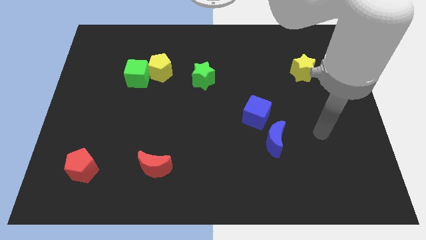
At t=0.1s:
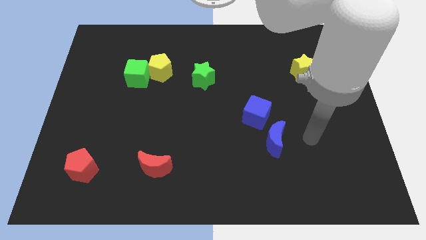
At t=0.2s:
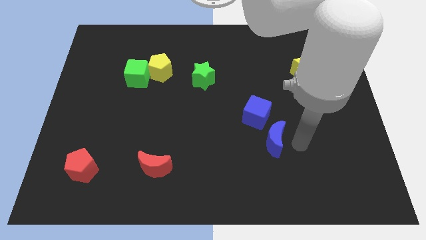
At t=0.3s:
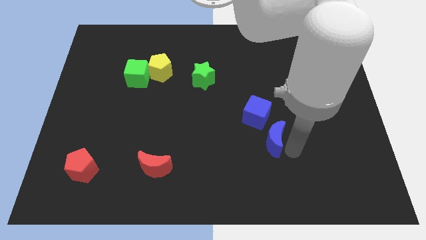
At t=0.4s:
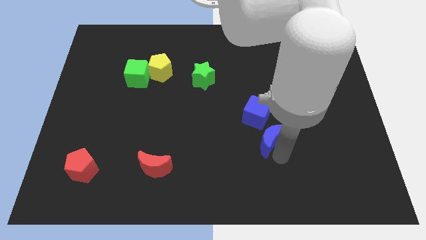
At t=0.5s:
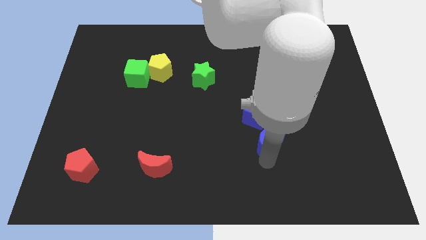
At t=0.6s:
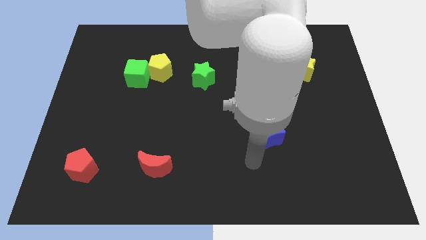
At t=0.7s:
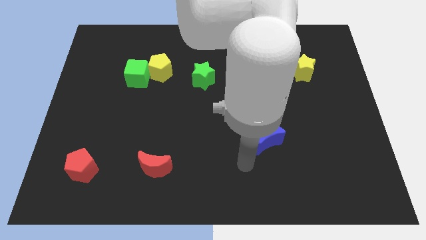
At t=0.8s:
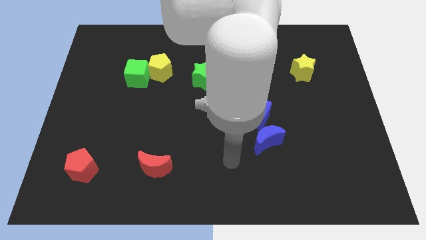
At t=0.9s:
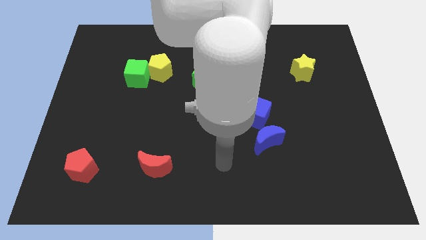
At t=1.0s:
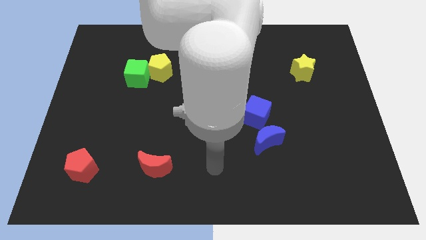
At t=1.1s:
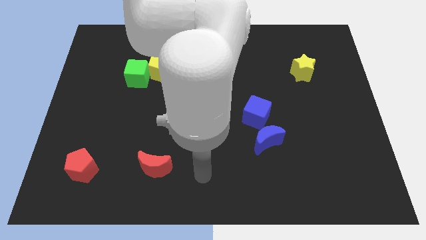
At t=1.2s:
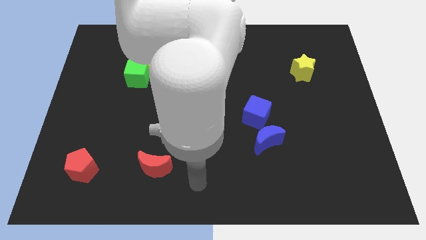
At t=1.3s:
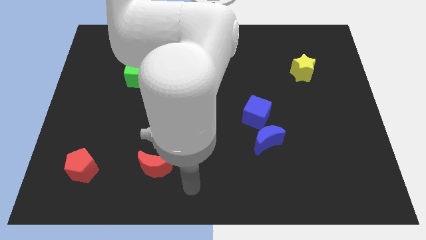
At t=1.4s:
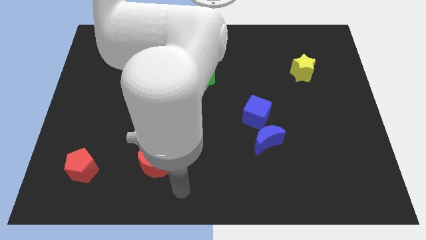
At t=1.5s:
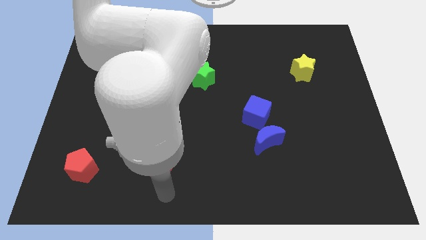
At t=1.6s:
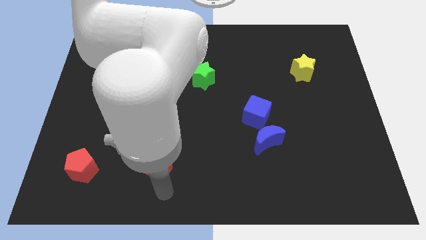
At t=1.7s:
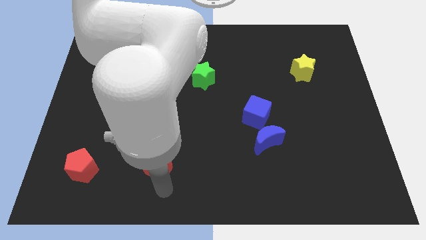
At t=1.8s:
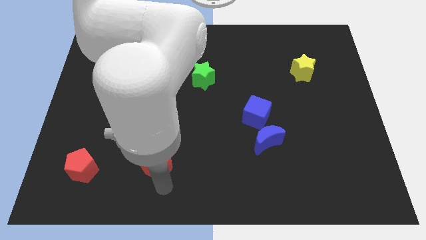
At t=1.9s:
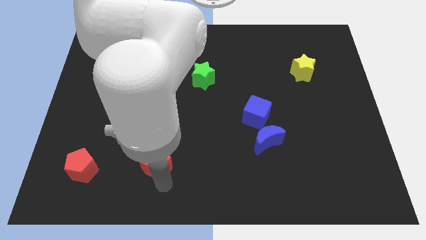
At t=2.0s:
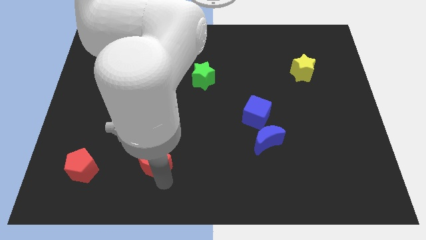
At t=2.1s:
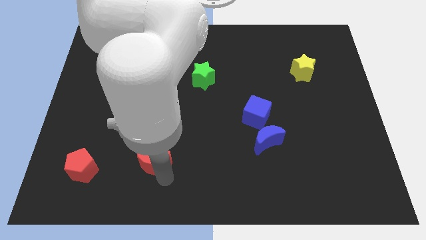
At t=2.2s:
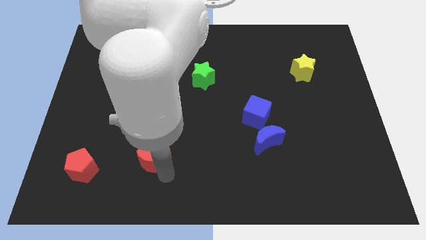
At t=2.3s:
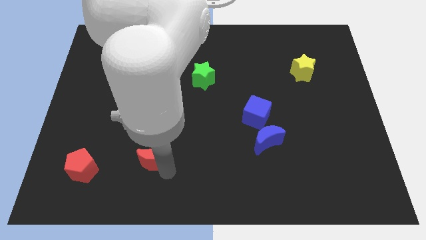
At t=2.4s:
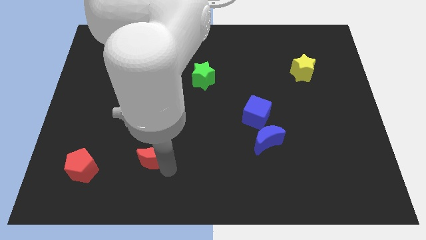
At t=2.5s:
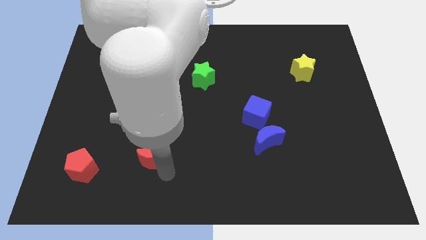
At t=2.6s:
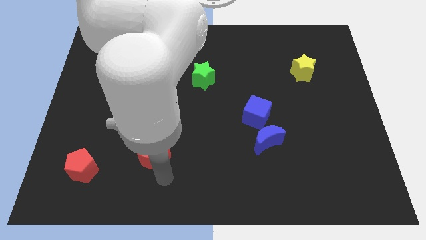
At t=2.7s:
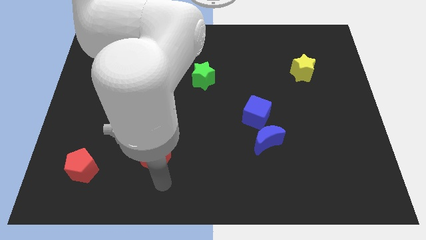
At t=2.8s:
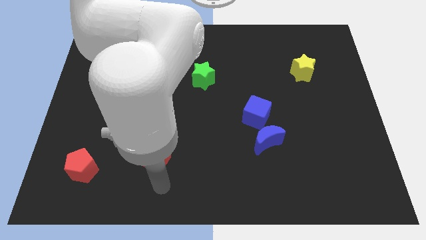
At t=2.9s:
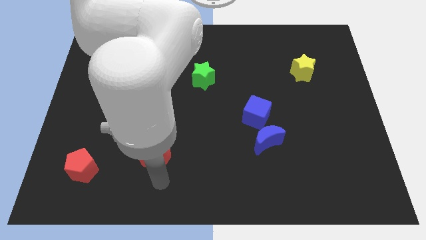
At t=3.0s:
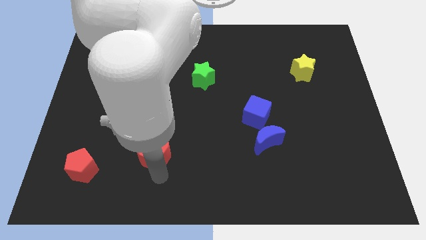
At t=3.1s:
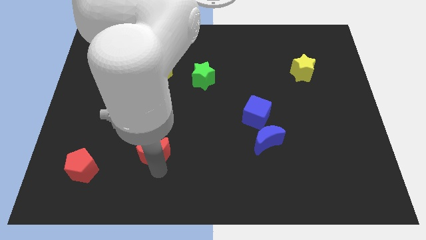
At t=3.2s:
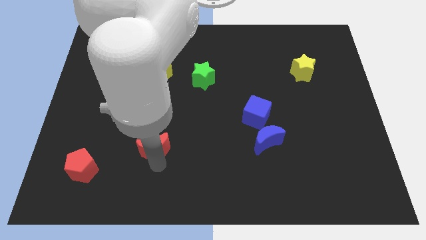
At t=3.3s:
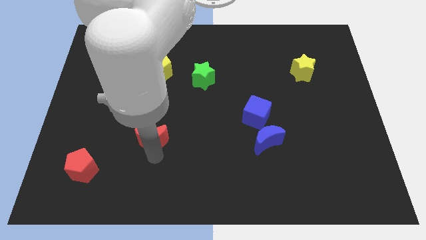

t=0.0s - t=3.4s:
slightly push the red moon up

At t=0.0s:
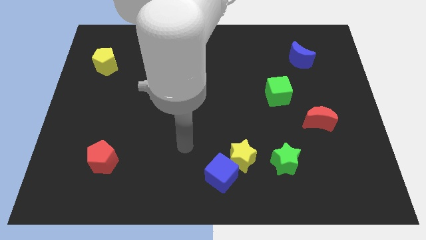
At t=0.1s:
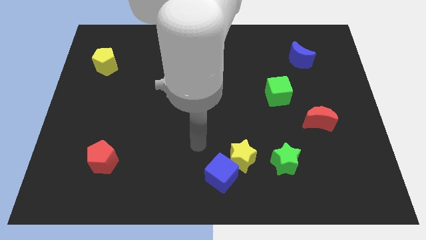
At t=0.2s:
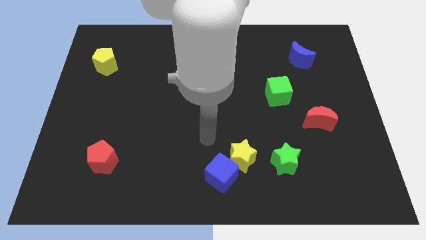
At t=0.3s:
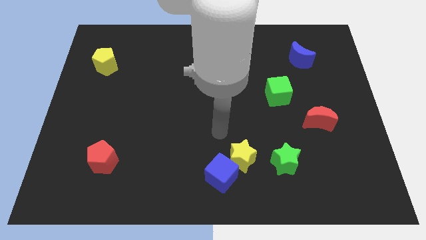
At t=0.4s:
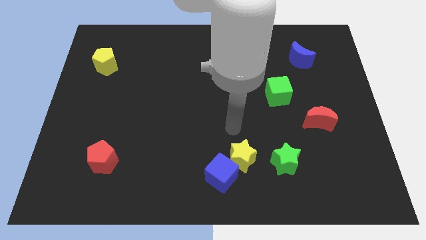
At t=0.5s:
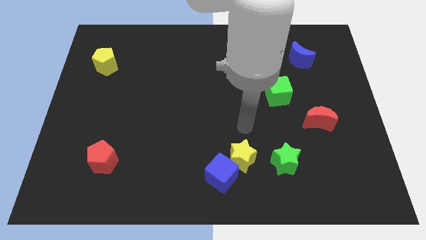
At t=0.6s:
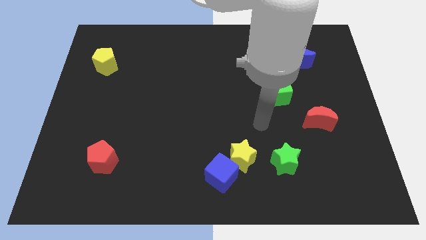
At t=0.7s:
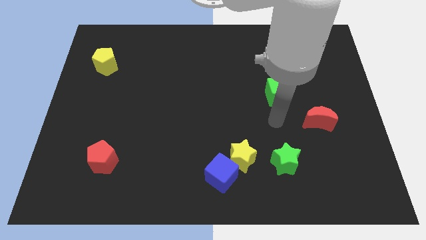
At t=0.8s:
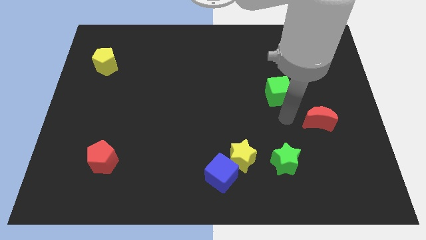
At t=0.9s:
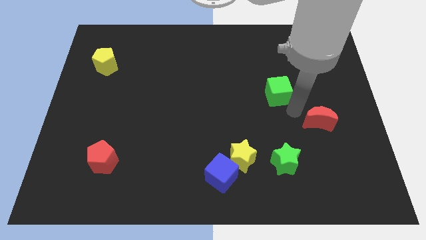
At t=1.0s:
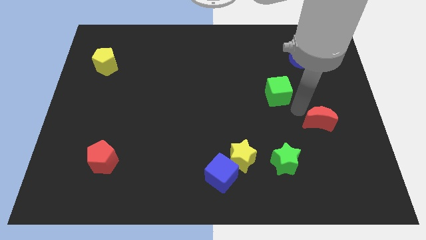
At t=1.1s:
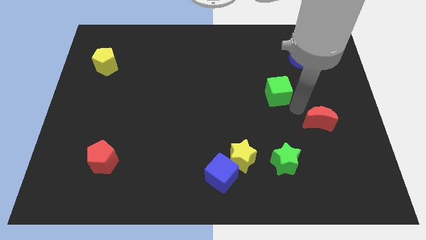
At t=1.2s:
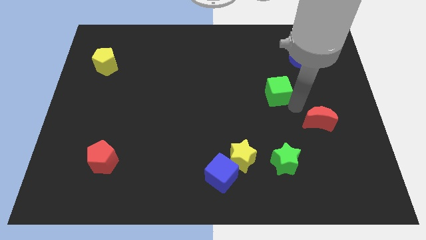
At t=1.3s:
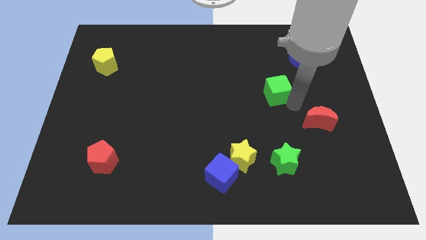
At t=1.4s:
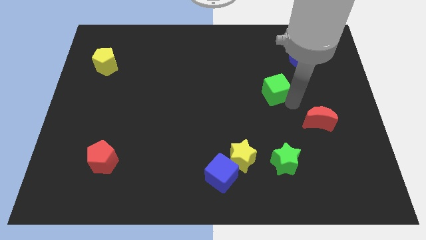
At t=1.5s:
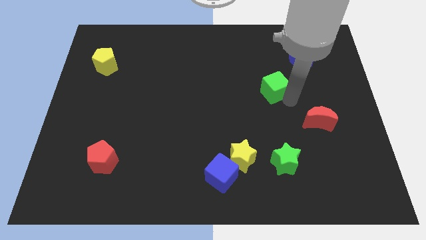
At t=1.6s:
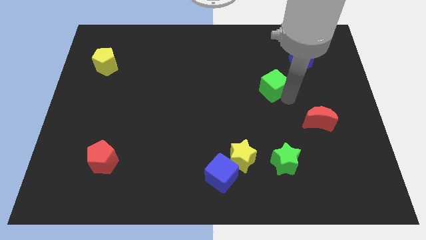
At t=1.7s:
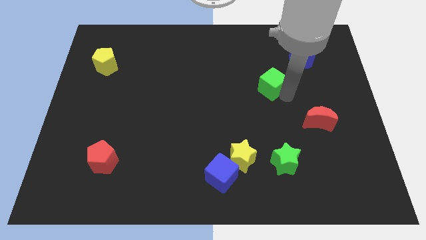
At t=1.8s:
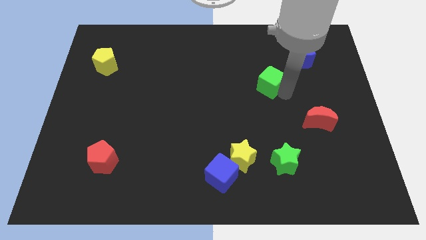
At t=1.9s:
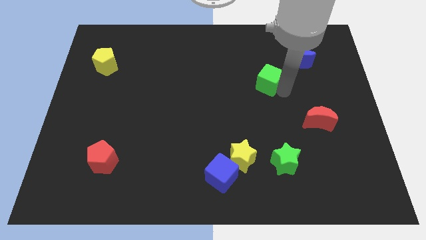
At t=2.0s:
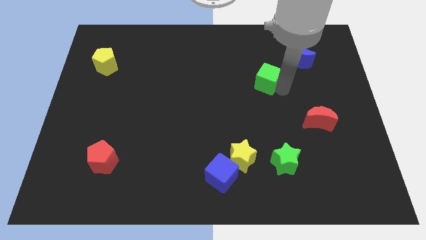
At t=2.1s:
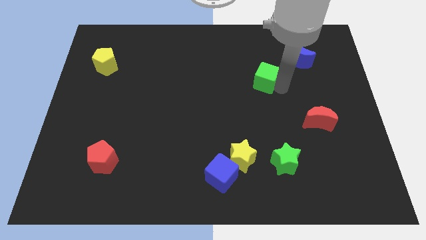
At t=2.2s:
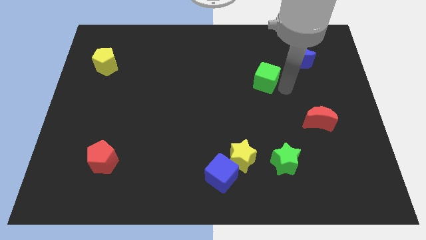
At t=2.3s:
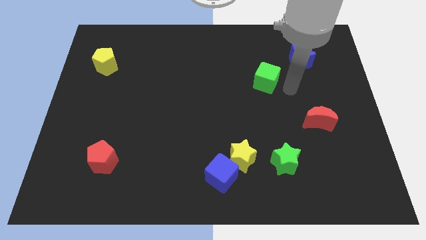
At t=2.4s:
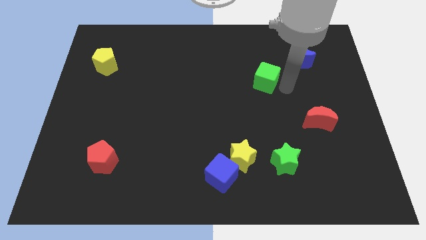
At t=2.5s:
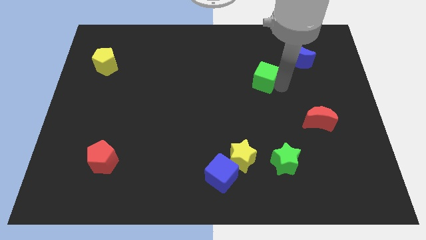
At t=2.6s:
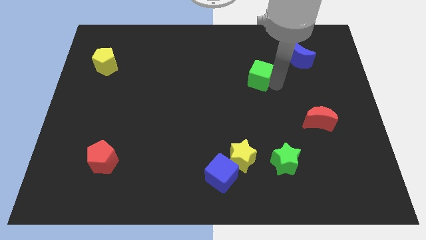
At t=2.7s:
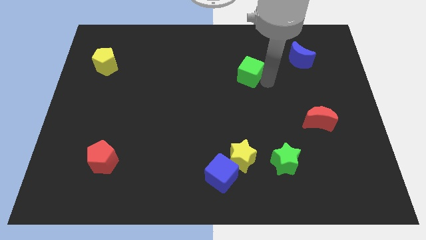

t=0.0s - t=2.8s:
move the green cube upwards and to the left slightly

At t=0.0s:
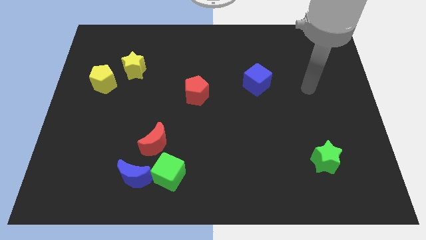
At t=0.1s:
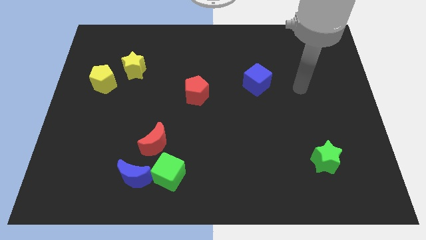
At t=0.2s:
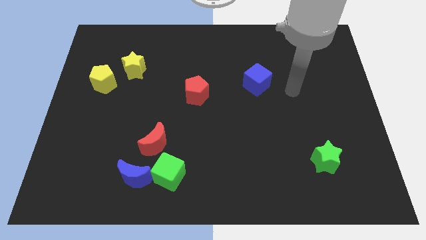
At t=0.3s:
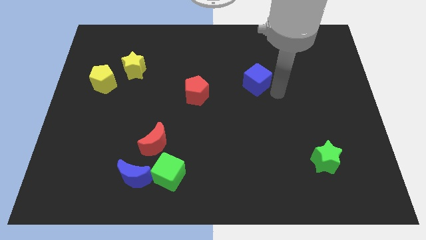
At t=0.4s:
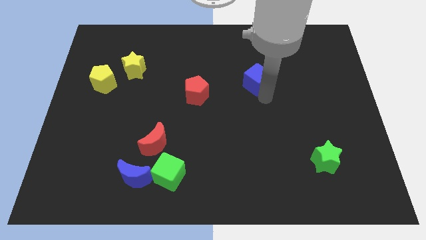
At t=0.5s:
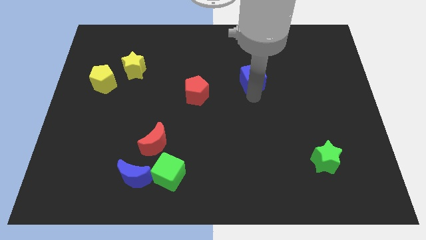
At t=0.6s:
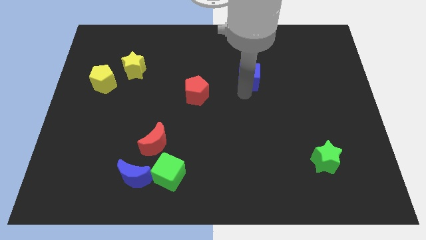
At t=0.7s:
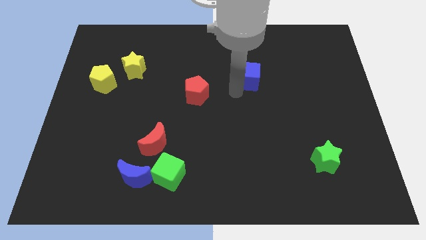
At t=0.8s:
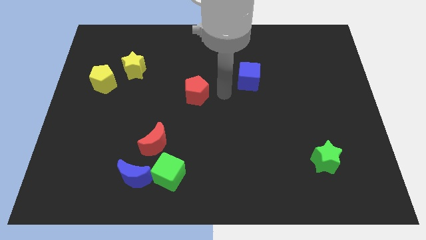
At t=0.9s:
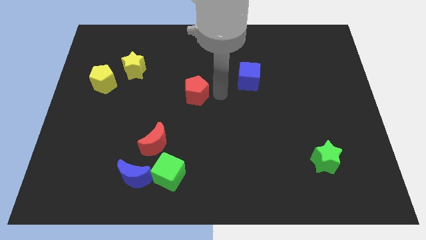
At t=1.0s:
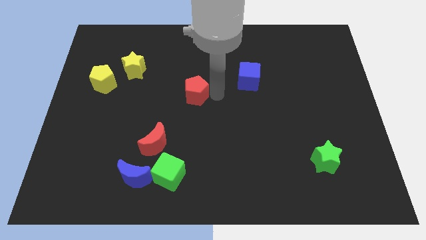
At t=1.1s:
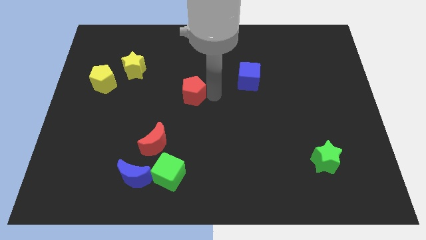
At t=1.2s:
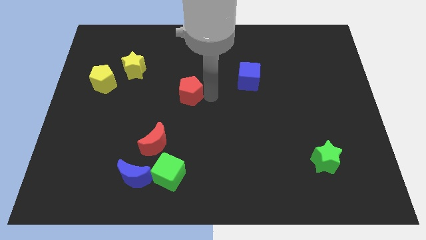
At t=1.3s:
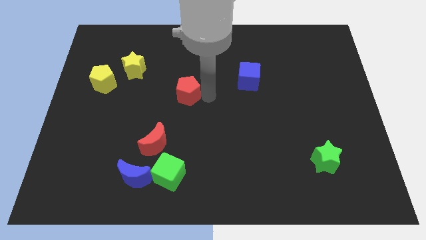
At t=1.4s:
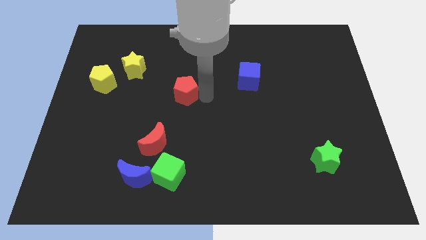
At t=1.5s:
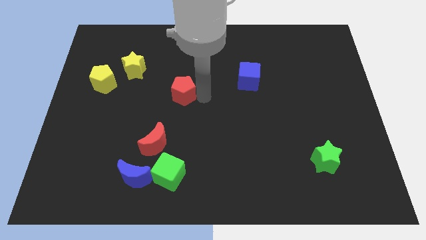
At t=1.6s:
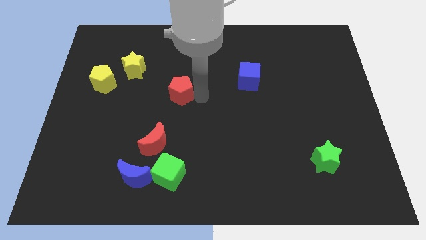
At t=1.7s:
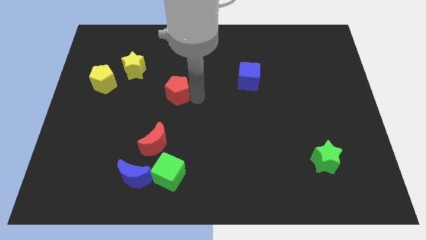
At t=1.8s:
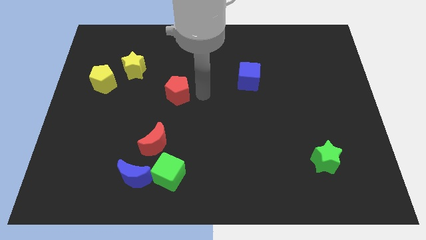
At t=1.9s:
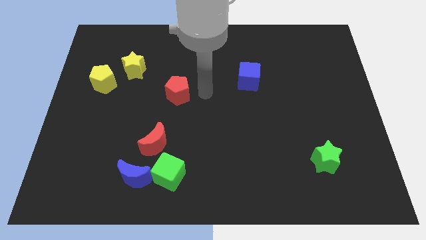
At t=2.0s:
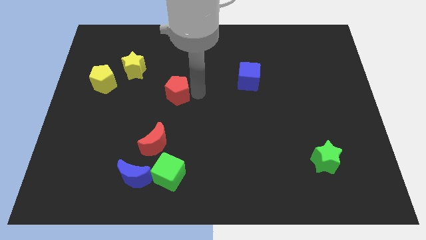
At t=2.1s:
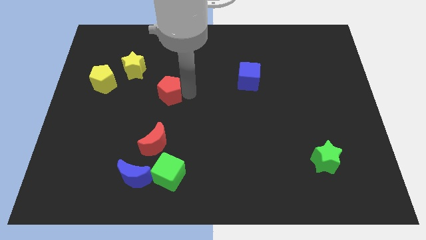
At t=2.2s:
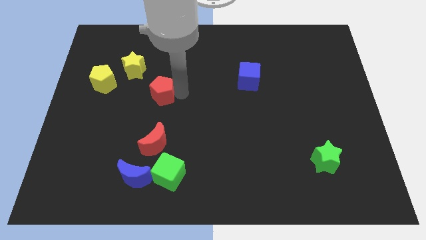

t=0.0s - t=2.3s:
slightly move the red pentagon to the left
